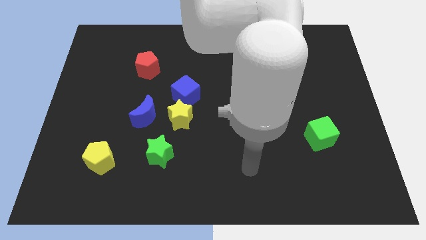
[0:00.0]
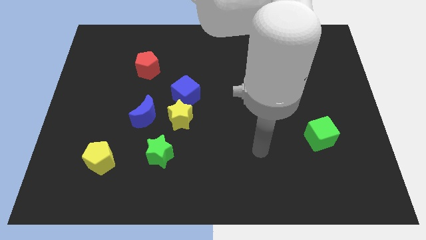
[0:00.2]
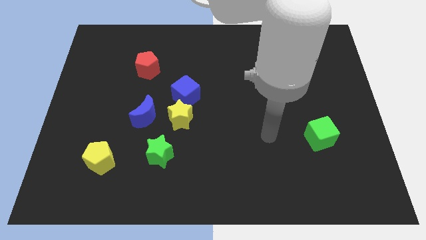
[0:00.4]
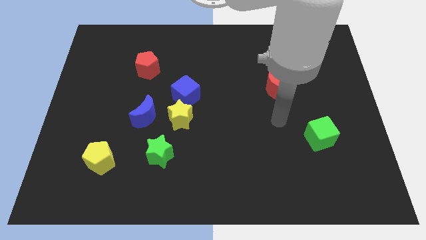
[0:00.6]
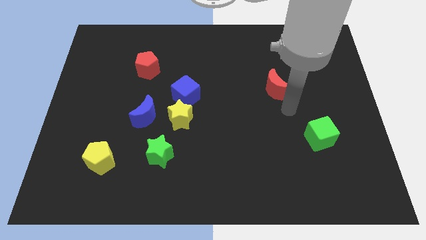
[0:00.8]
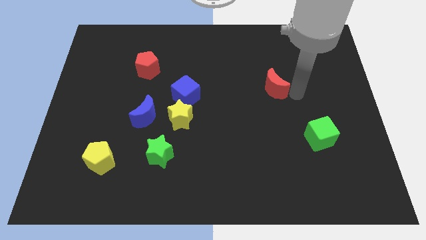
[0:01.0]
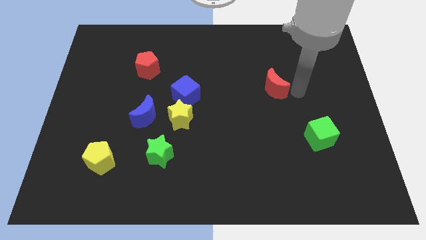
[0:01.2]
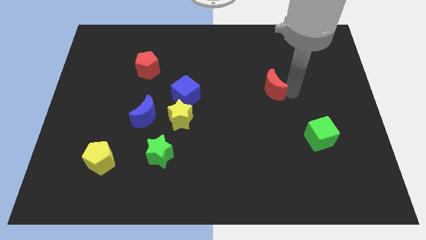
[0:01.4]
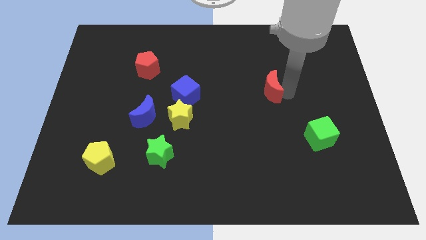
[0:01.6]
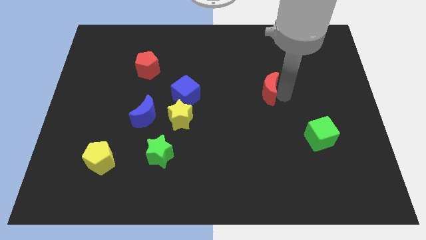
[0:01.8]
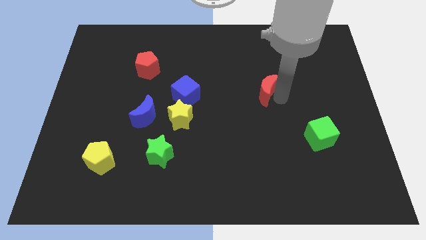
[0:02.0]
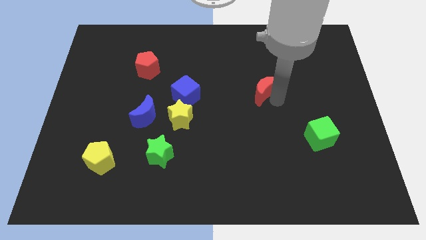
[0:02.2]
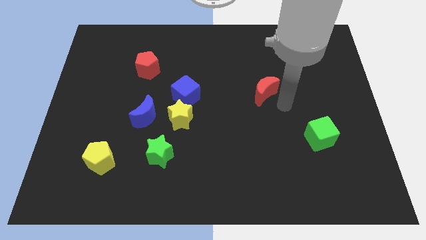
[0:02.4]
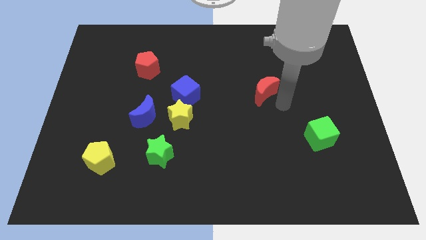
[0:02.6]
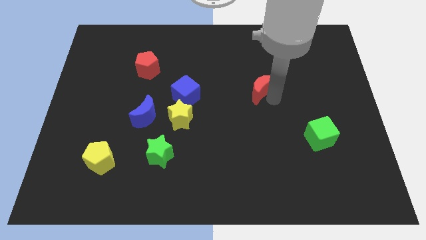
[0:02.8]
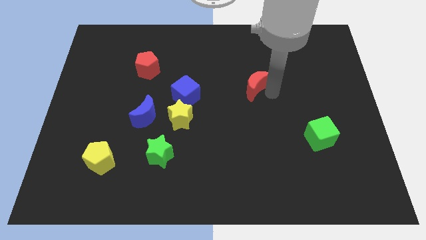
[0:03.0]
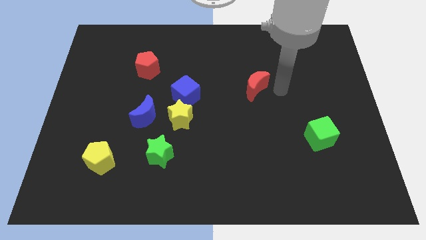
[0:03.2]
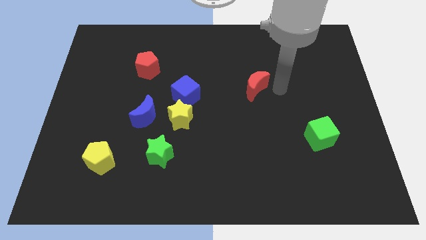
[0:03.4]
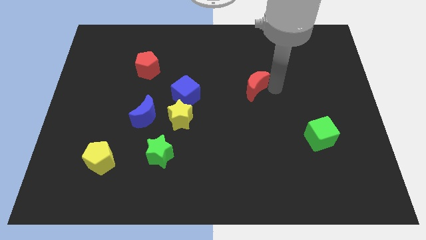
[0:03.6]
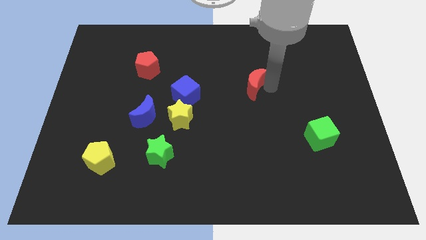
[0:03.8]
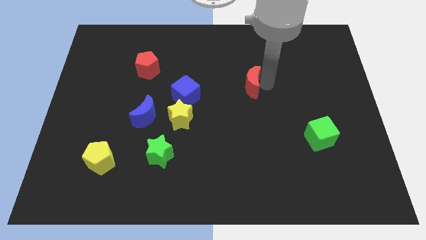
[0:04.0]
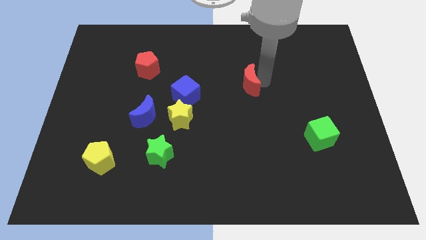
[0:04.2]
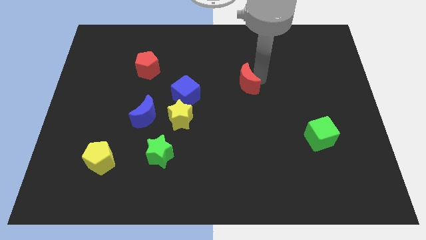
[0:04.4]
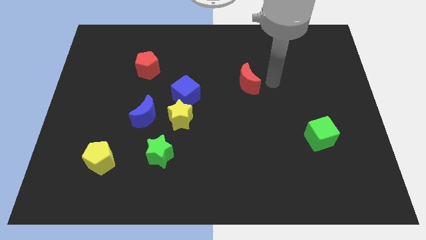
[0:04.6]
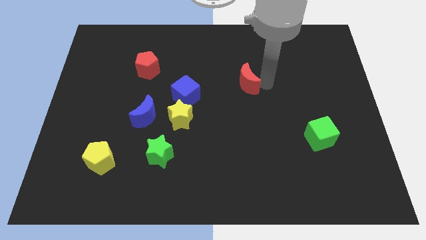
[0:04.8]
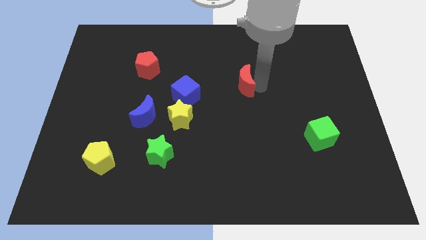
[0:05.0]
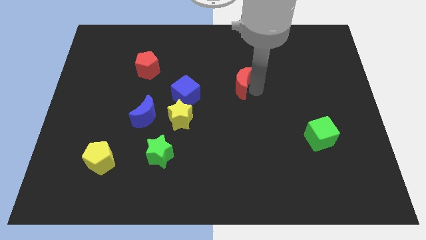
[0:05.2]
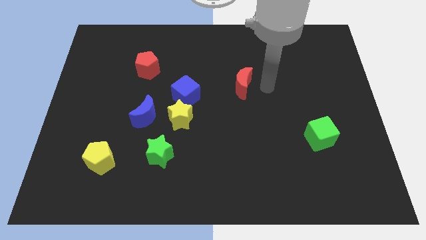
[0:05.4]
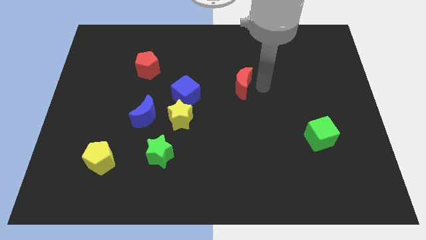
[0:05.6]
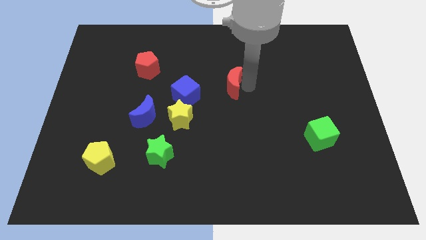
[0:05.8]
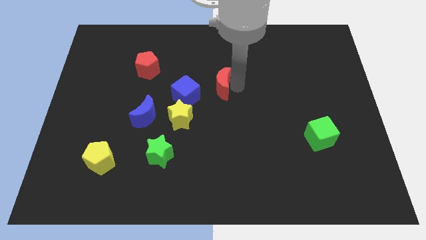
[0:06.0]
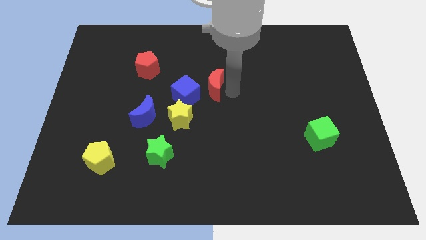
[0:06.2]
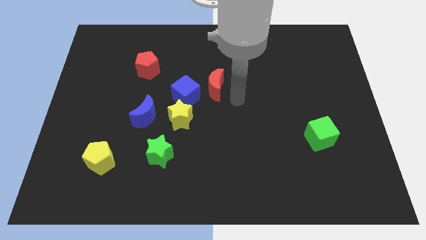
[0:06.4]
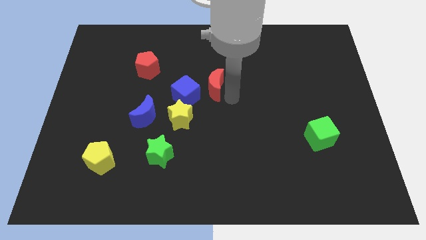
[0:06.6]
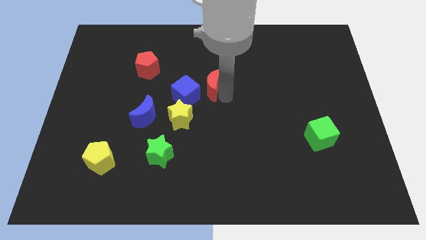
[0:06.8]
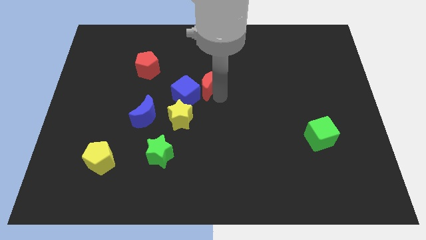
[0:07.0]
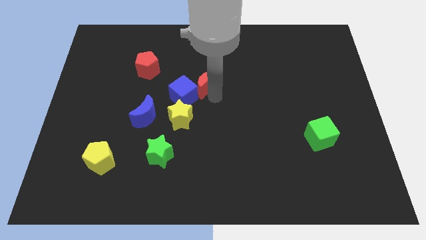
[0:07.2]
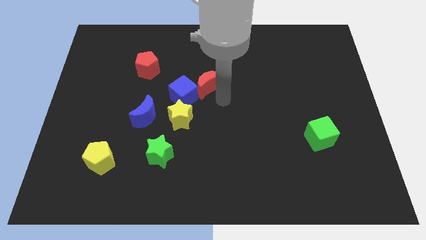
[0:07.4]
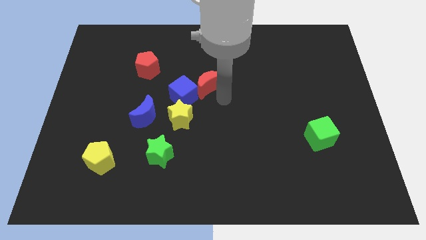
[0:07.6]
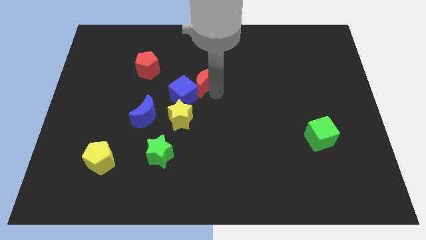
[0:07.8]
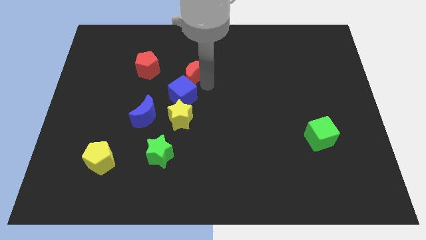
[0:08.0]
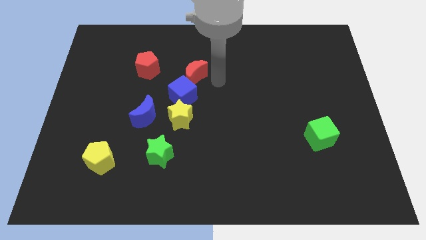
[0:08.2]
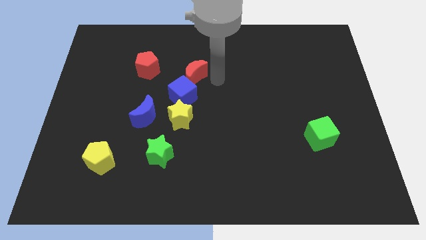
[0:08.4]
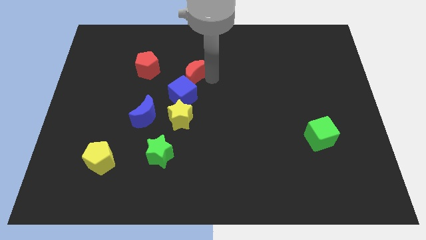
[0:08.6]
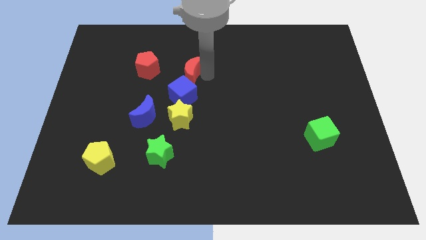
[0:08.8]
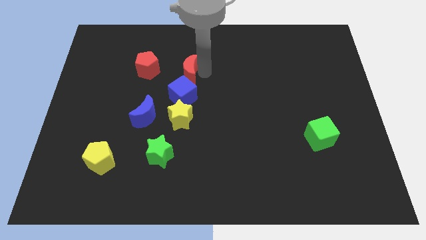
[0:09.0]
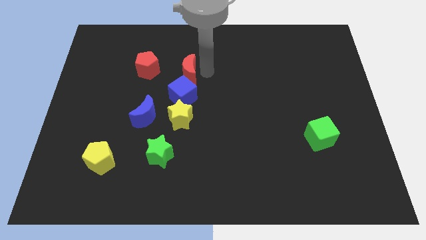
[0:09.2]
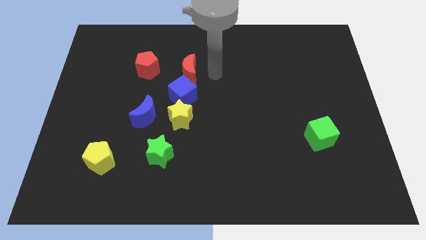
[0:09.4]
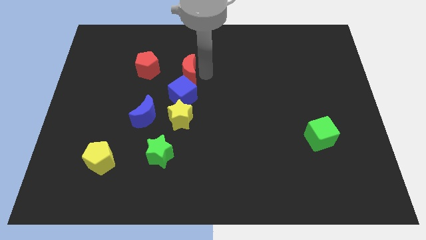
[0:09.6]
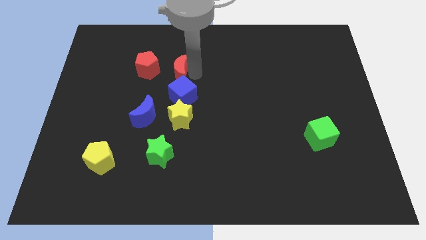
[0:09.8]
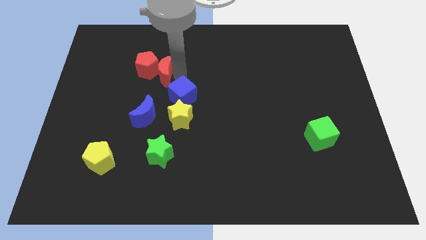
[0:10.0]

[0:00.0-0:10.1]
put the red moon to the red pentagon

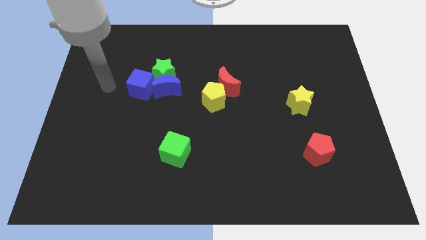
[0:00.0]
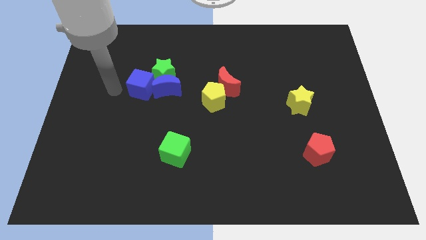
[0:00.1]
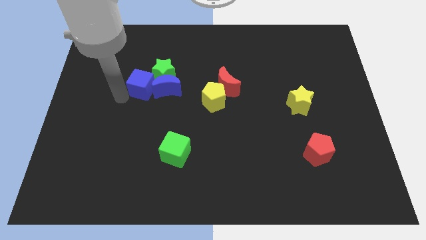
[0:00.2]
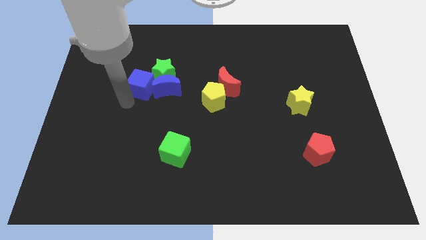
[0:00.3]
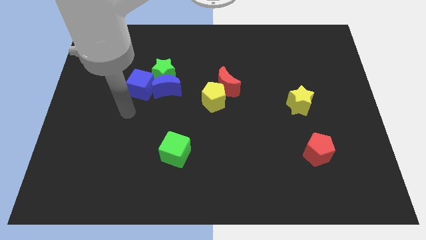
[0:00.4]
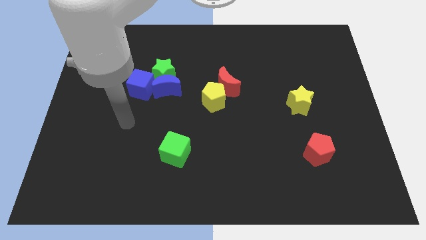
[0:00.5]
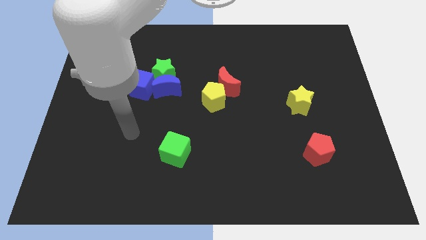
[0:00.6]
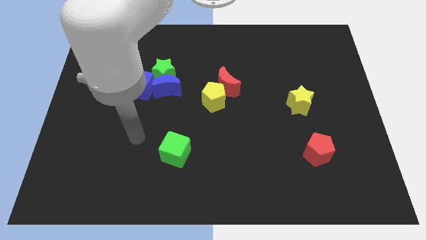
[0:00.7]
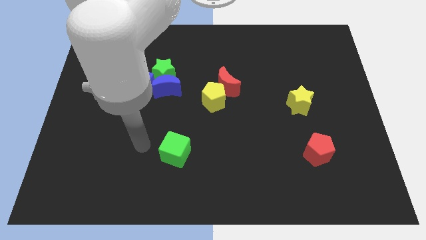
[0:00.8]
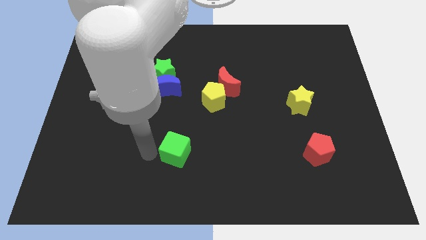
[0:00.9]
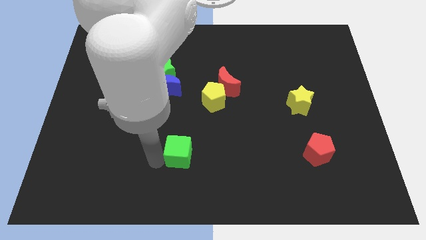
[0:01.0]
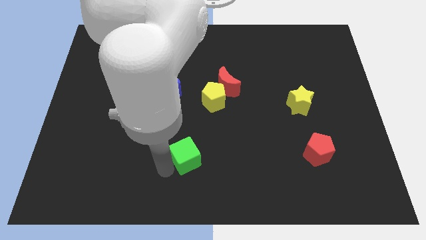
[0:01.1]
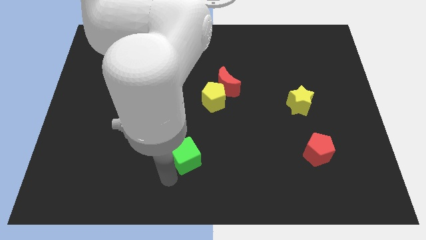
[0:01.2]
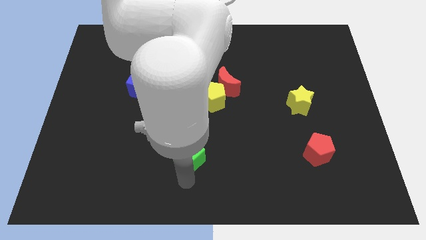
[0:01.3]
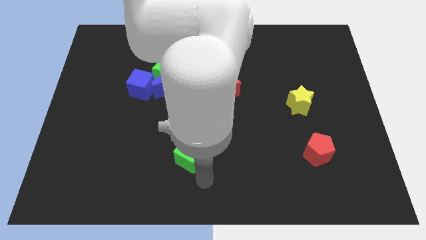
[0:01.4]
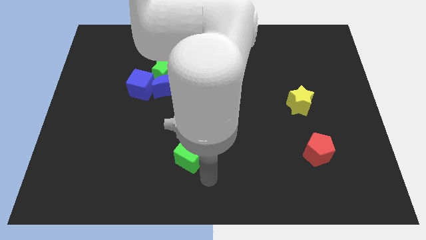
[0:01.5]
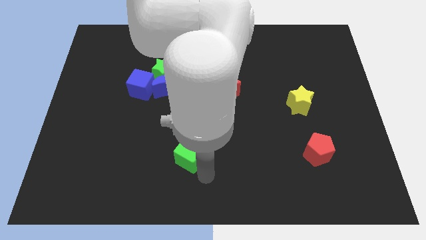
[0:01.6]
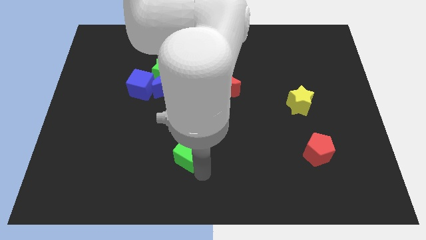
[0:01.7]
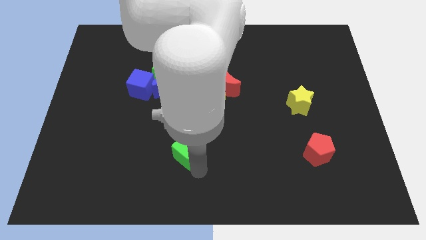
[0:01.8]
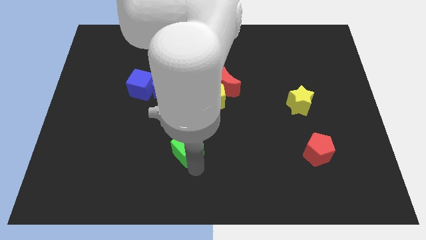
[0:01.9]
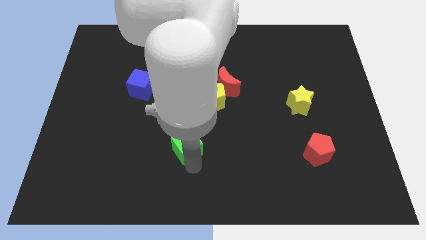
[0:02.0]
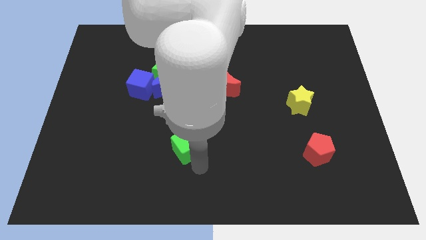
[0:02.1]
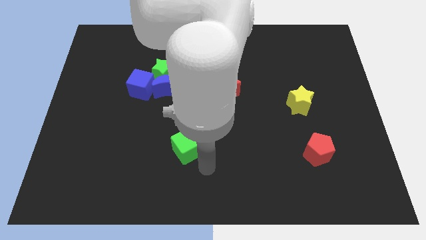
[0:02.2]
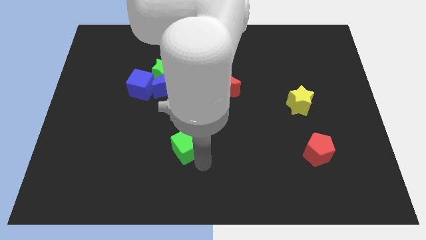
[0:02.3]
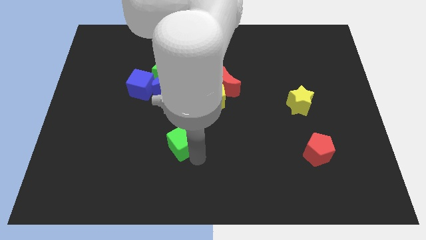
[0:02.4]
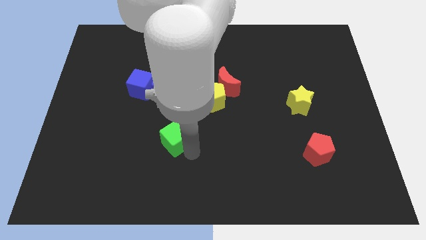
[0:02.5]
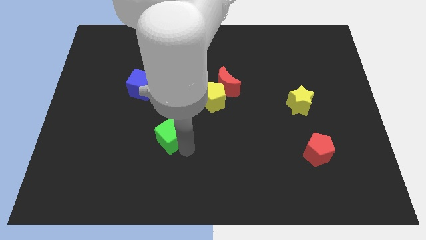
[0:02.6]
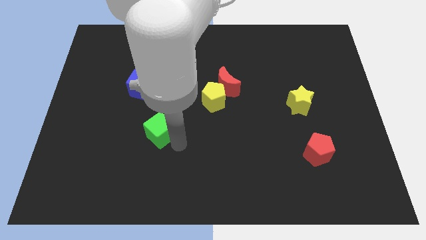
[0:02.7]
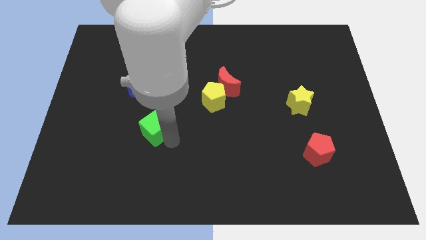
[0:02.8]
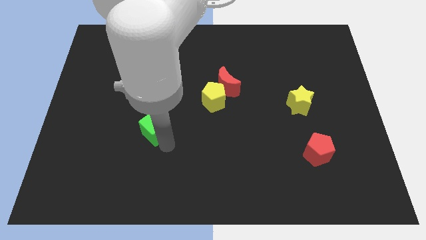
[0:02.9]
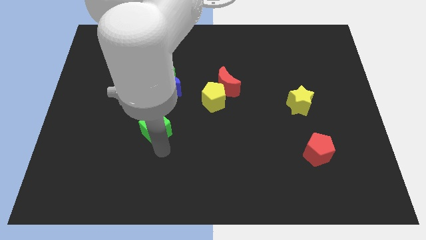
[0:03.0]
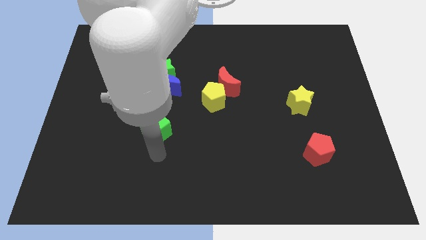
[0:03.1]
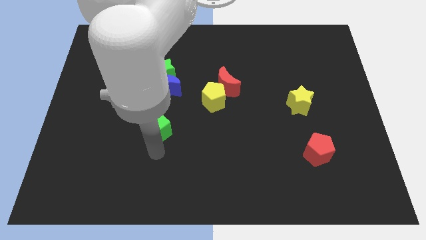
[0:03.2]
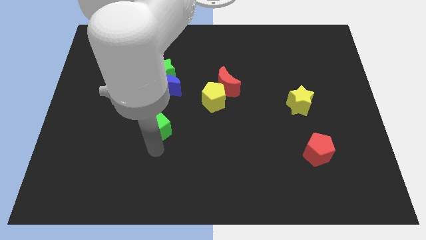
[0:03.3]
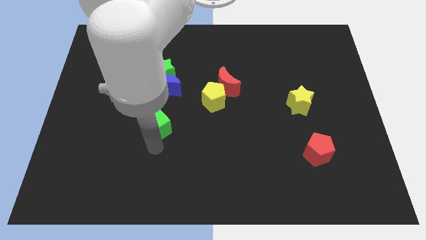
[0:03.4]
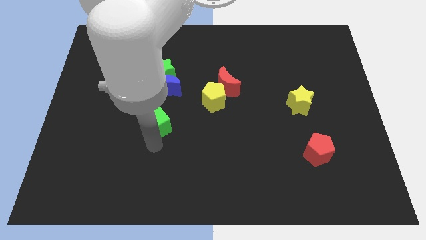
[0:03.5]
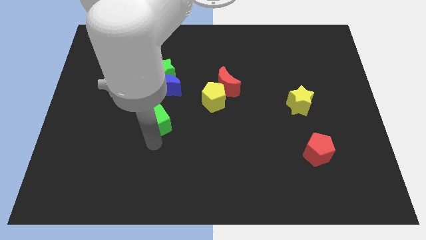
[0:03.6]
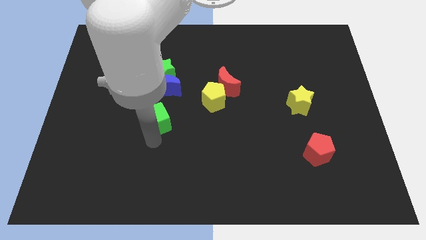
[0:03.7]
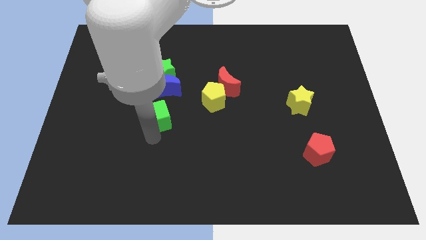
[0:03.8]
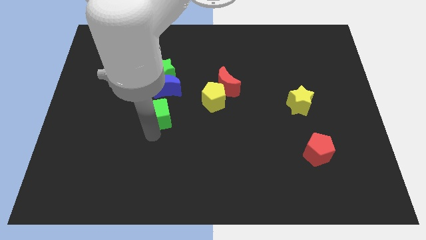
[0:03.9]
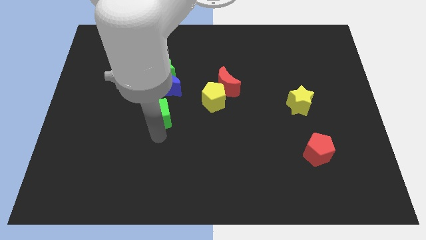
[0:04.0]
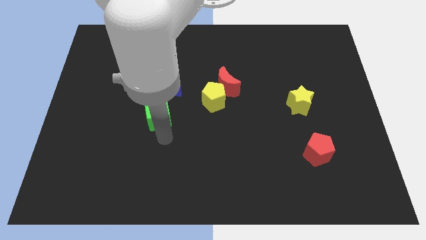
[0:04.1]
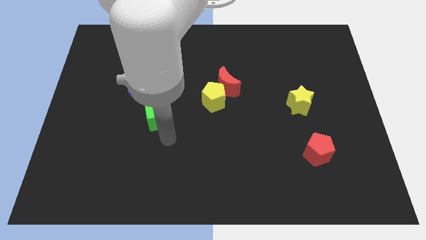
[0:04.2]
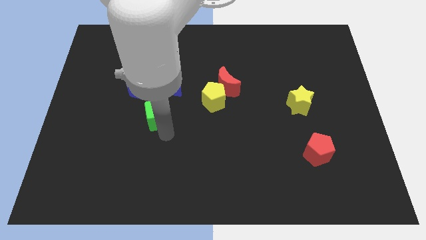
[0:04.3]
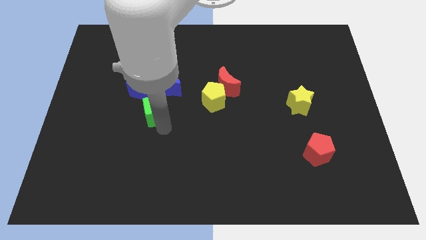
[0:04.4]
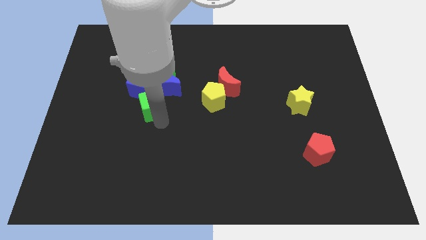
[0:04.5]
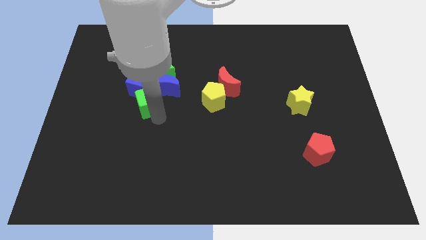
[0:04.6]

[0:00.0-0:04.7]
push the green cube next to the blue cube
